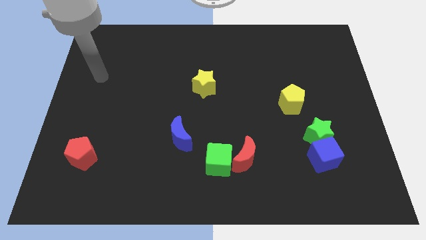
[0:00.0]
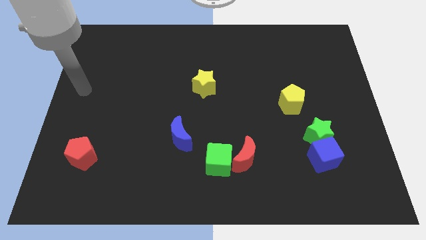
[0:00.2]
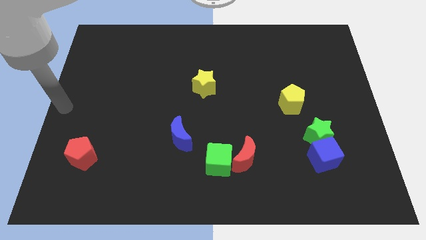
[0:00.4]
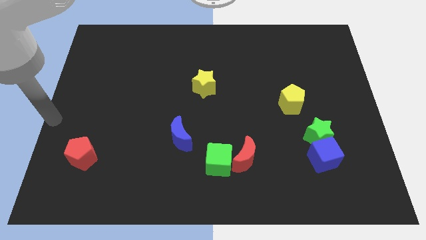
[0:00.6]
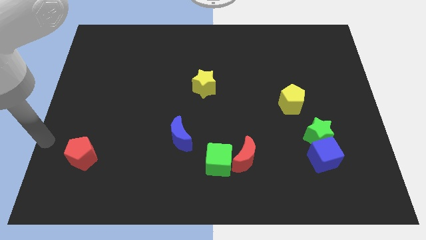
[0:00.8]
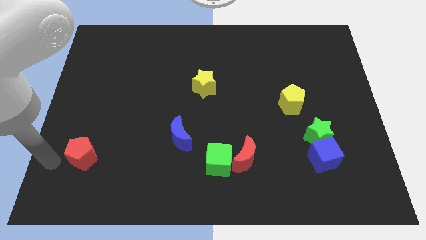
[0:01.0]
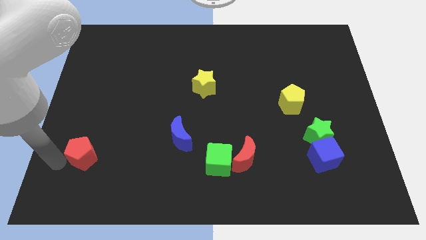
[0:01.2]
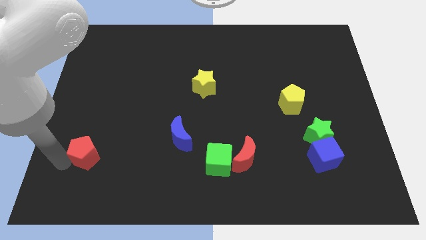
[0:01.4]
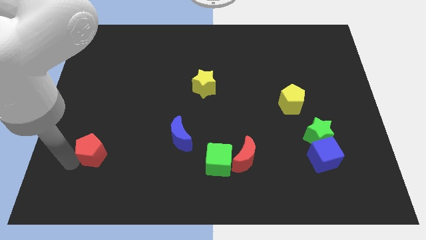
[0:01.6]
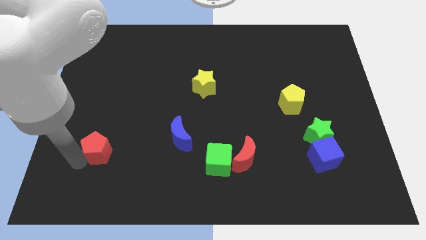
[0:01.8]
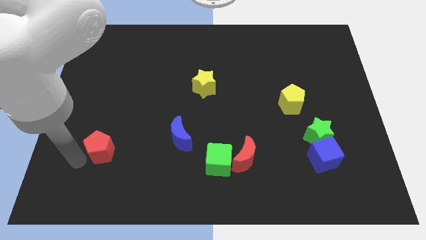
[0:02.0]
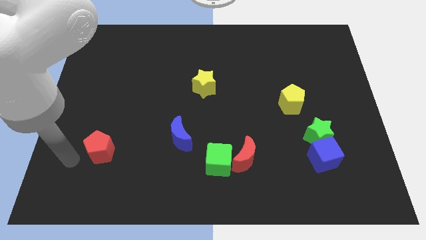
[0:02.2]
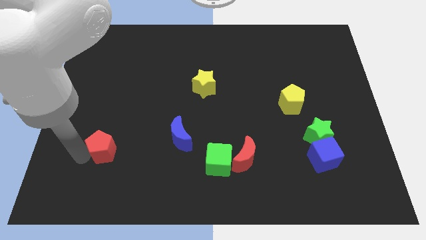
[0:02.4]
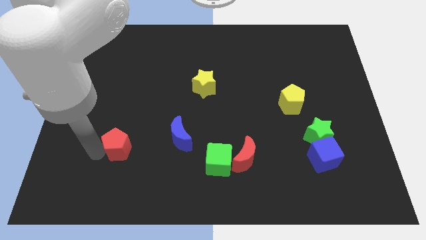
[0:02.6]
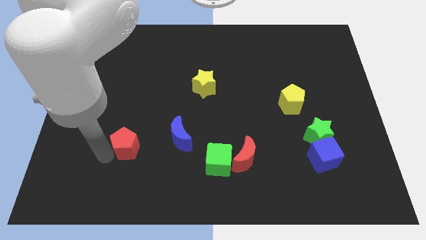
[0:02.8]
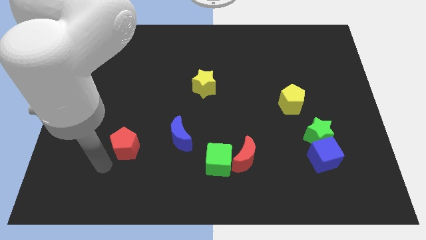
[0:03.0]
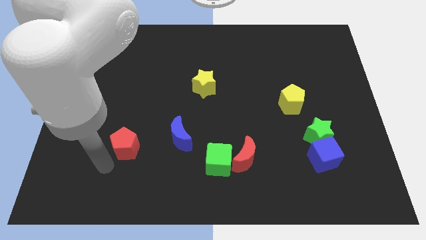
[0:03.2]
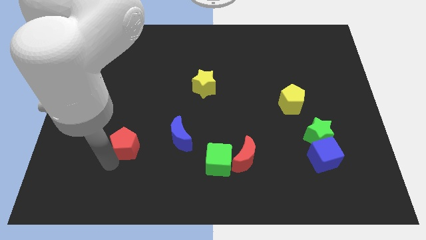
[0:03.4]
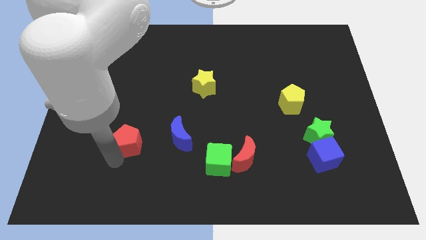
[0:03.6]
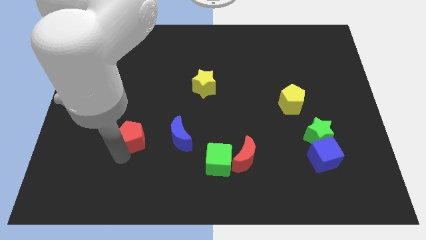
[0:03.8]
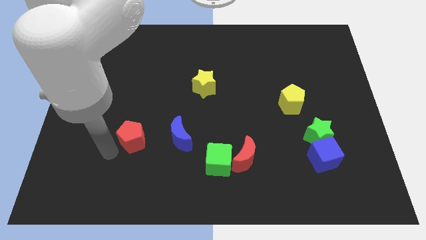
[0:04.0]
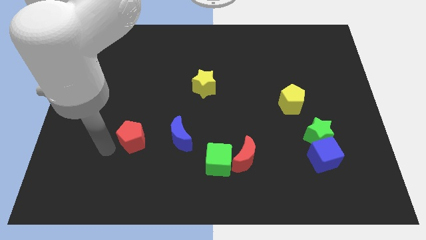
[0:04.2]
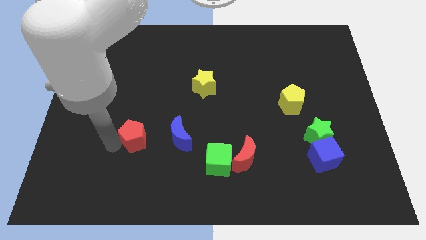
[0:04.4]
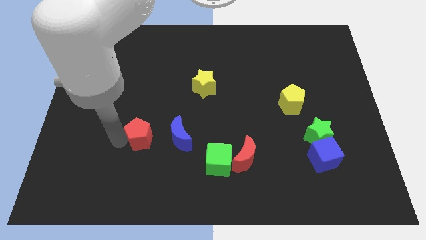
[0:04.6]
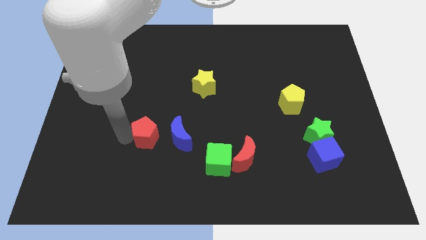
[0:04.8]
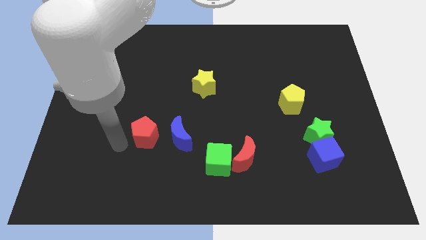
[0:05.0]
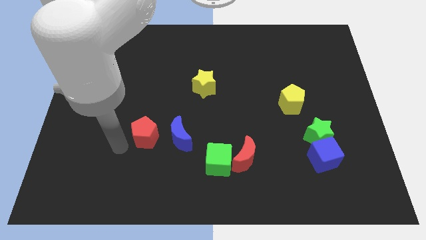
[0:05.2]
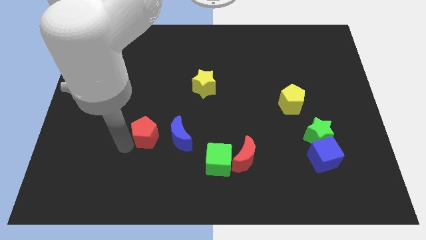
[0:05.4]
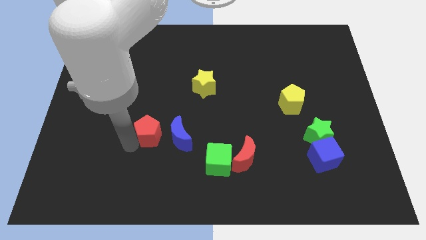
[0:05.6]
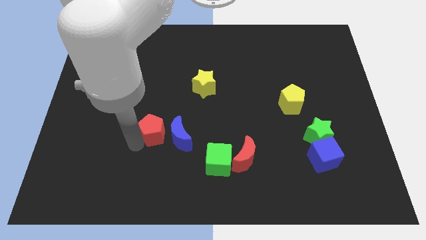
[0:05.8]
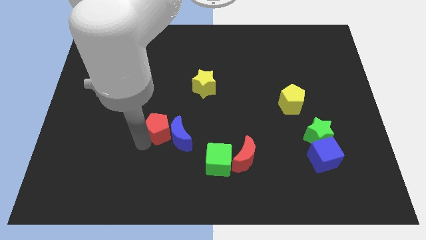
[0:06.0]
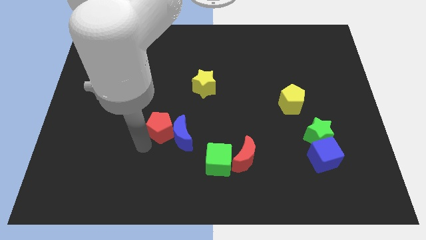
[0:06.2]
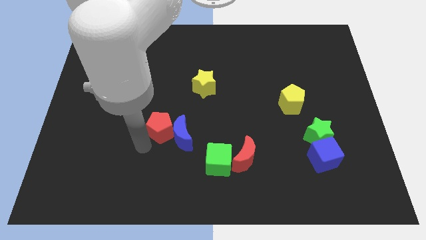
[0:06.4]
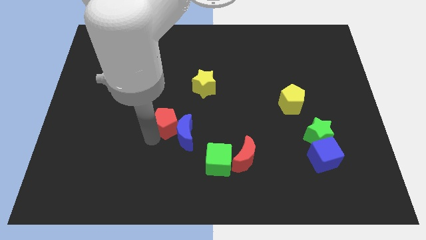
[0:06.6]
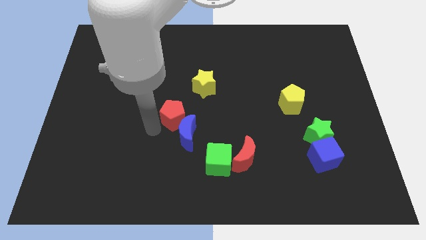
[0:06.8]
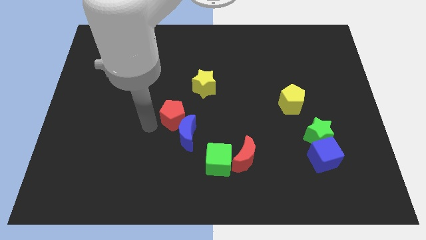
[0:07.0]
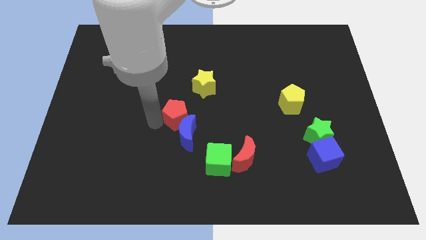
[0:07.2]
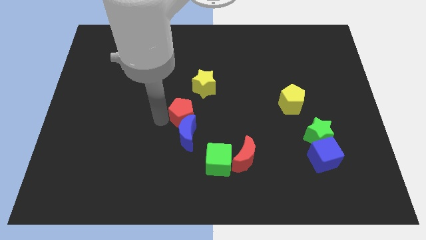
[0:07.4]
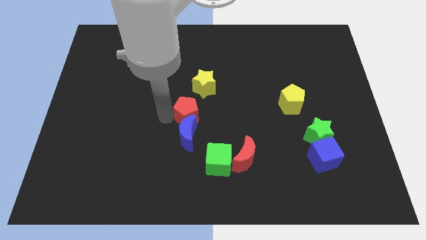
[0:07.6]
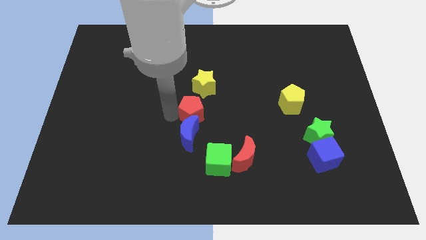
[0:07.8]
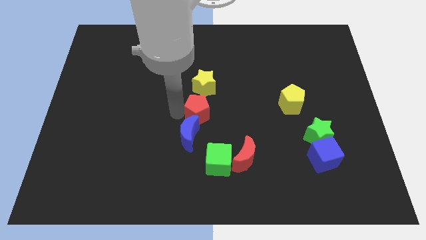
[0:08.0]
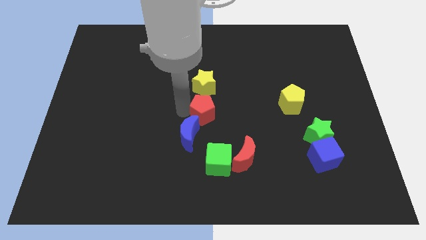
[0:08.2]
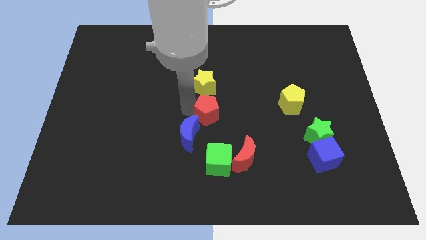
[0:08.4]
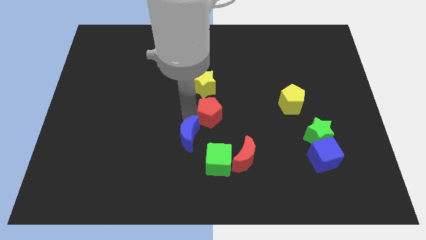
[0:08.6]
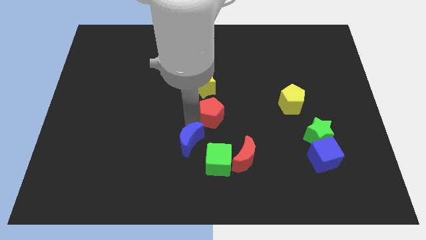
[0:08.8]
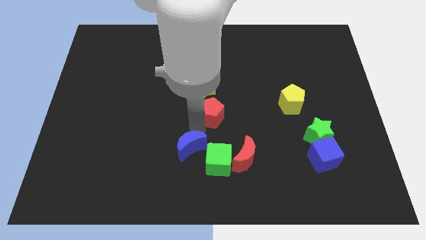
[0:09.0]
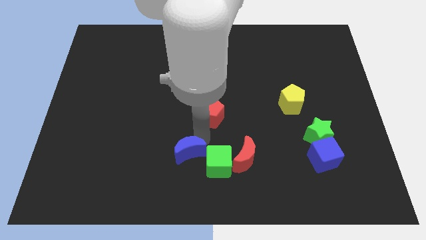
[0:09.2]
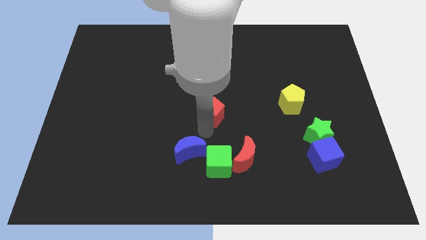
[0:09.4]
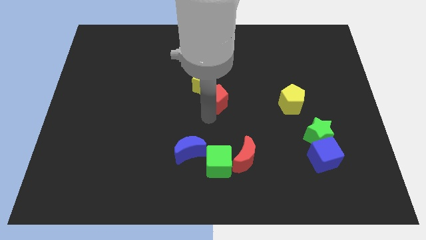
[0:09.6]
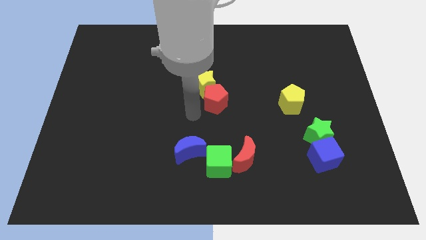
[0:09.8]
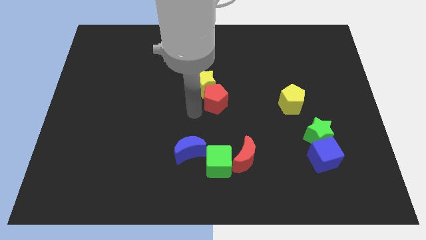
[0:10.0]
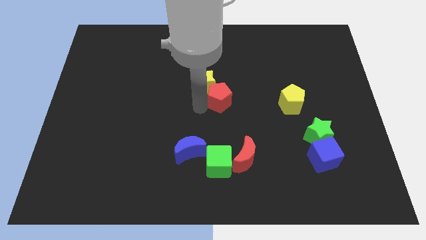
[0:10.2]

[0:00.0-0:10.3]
push the red pentagon just right of the yellow star

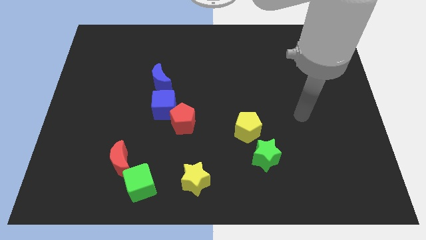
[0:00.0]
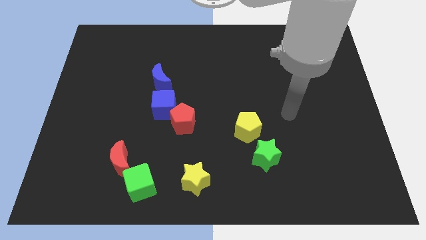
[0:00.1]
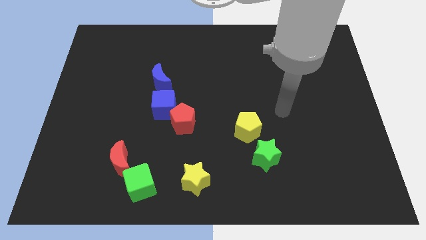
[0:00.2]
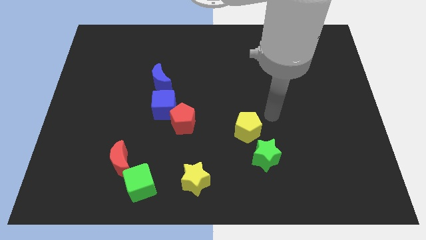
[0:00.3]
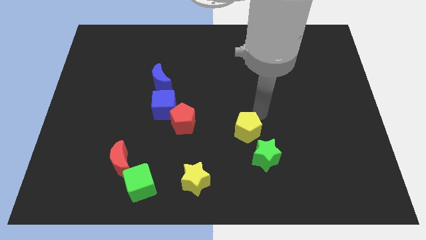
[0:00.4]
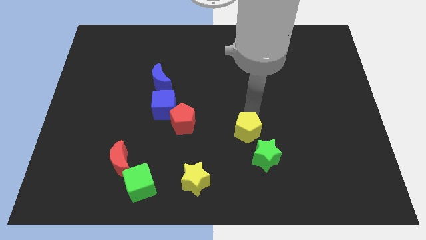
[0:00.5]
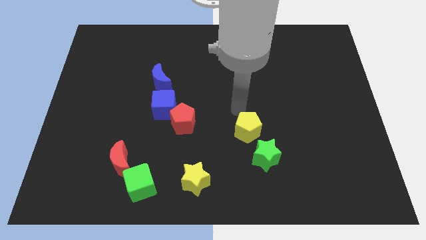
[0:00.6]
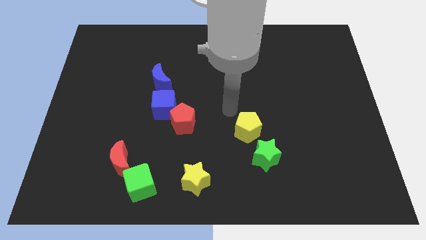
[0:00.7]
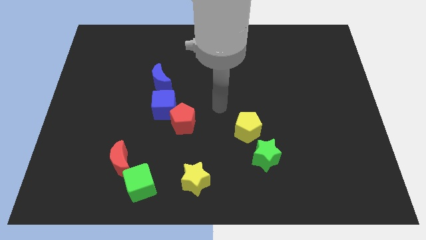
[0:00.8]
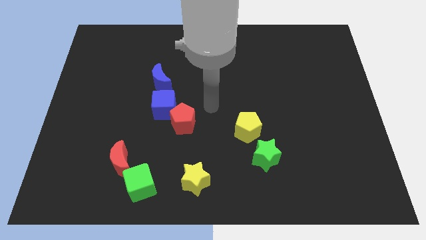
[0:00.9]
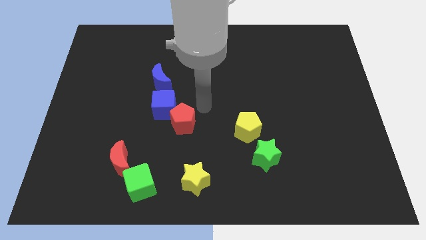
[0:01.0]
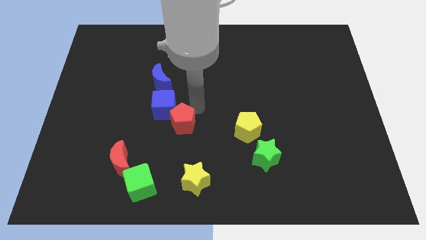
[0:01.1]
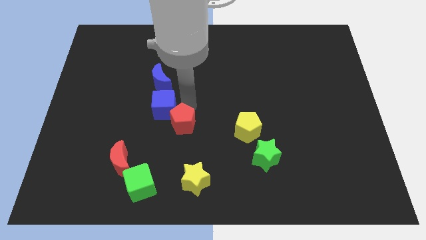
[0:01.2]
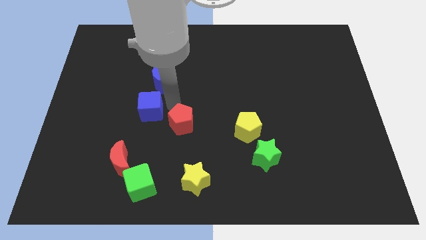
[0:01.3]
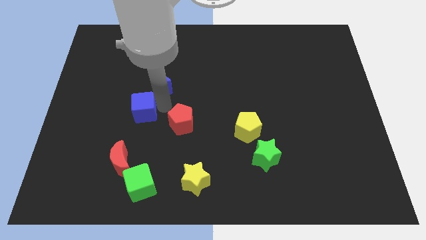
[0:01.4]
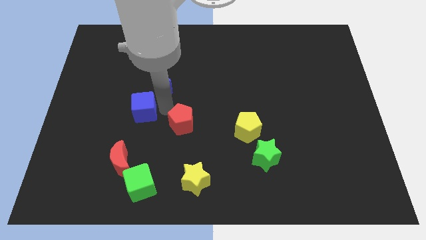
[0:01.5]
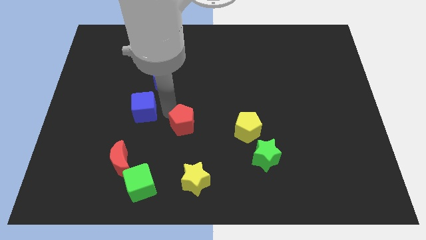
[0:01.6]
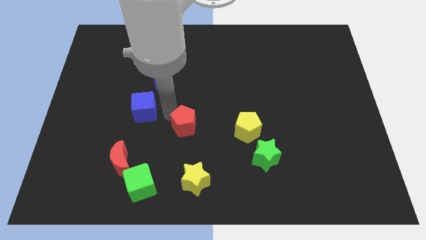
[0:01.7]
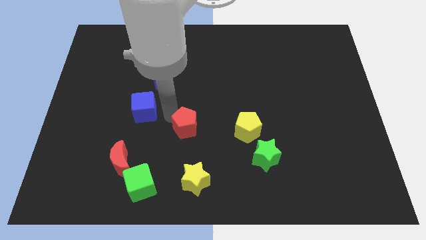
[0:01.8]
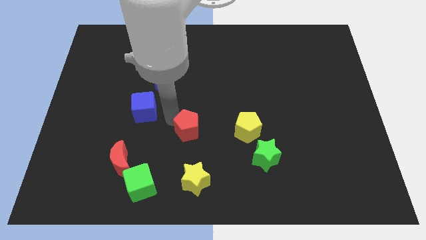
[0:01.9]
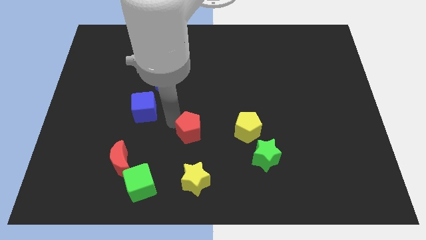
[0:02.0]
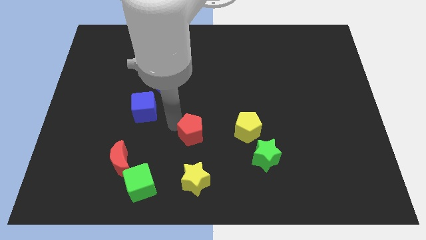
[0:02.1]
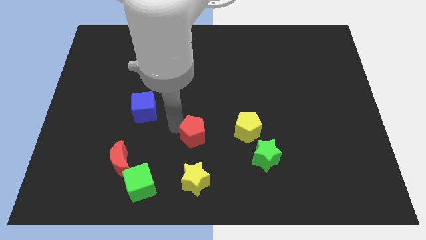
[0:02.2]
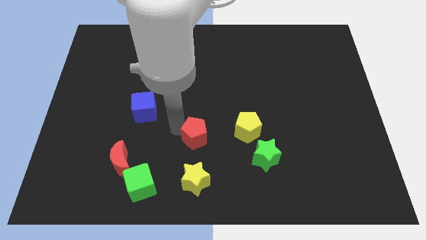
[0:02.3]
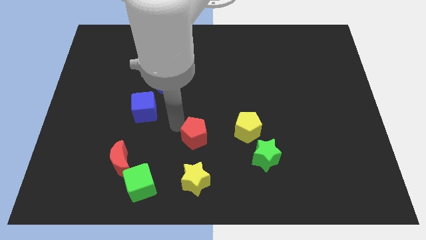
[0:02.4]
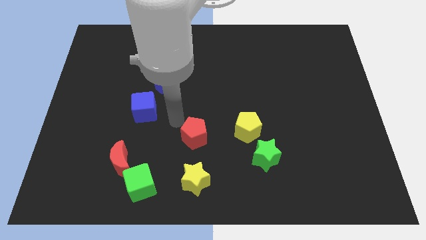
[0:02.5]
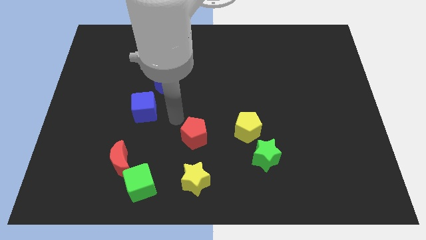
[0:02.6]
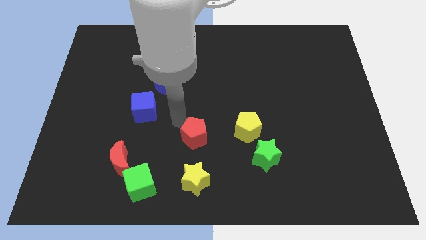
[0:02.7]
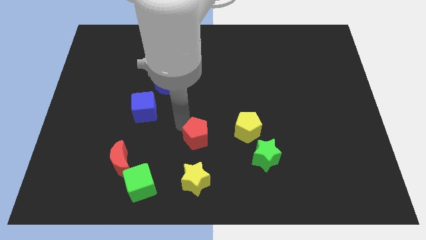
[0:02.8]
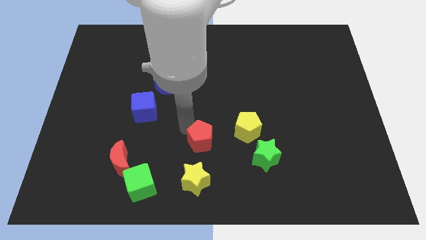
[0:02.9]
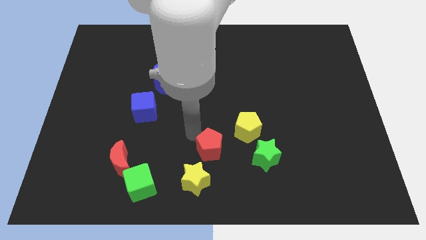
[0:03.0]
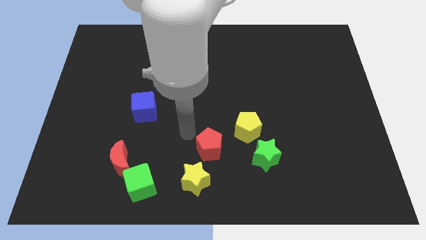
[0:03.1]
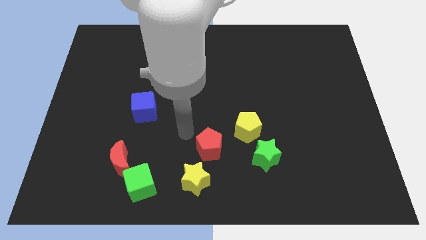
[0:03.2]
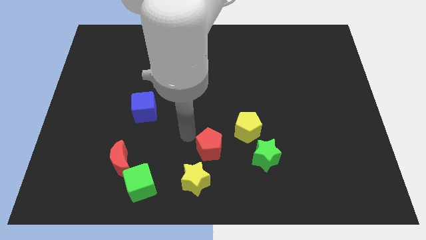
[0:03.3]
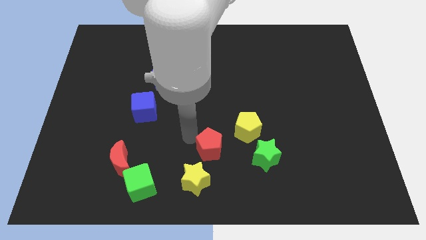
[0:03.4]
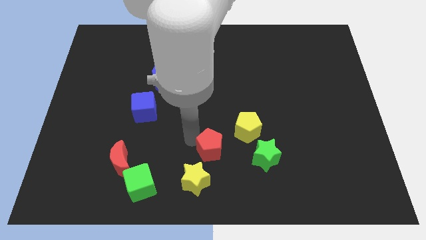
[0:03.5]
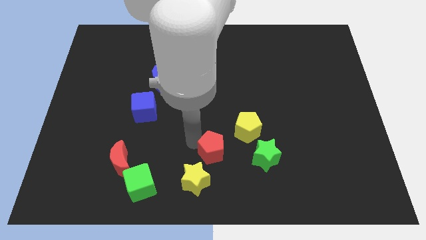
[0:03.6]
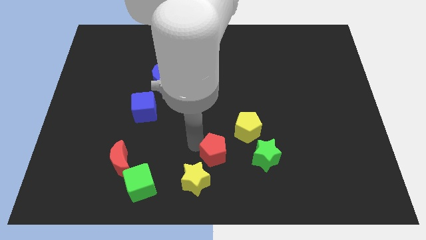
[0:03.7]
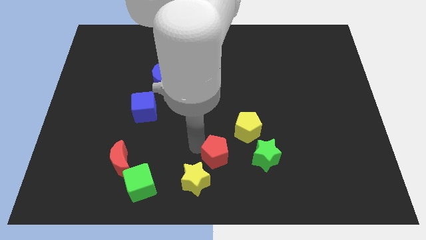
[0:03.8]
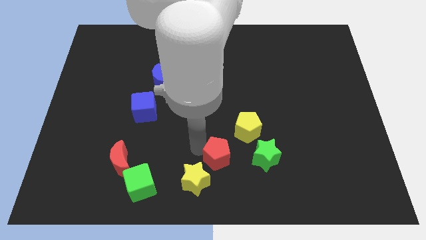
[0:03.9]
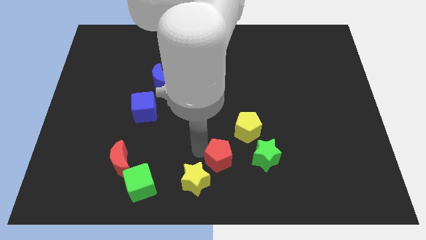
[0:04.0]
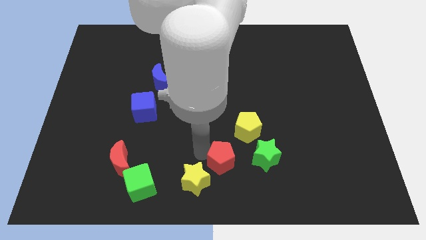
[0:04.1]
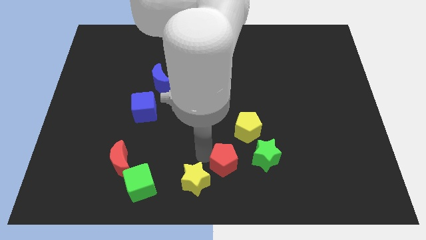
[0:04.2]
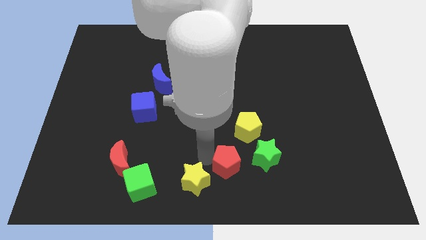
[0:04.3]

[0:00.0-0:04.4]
push the red pentagon to the bottom of the yellow pentagon
